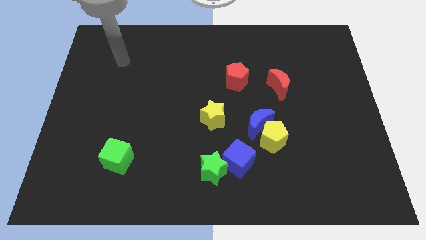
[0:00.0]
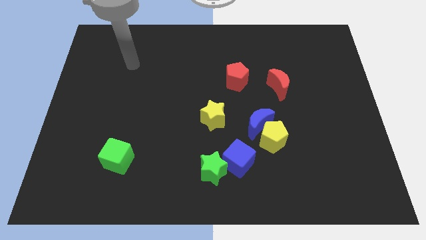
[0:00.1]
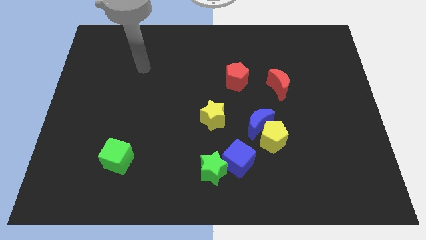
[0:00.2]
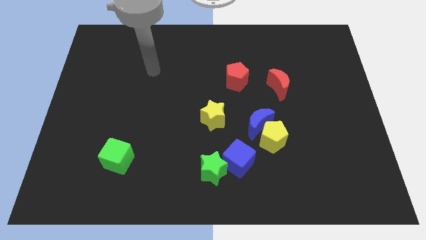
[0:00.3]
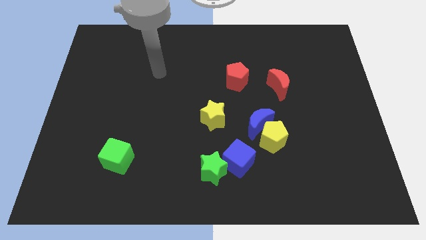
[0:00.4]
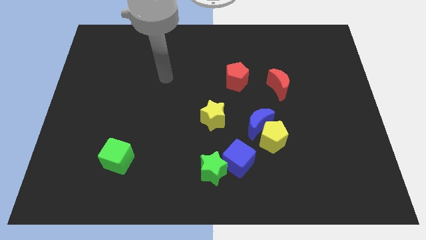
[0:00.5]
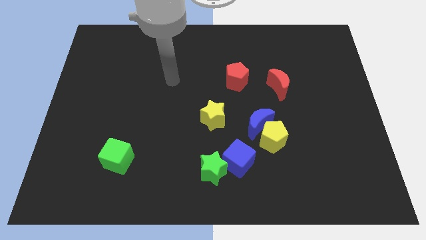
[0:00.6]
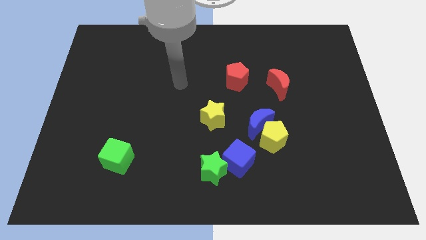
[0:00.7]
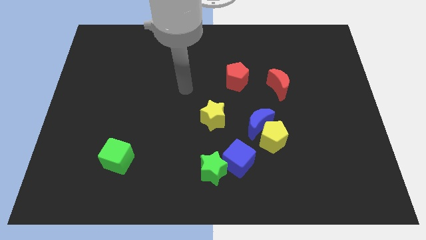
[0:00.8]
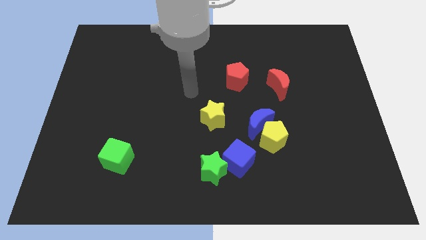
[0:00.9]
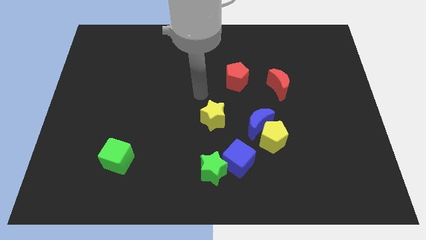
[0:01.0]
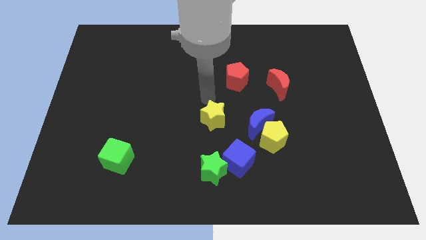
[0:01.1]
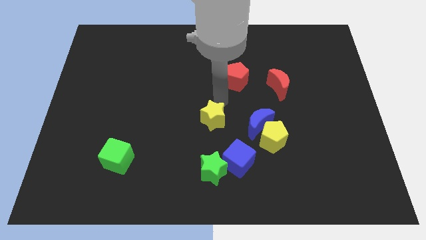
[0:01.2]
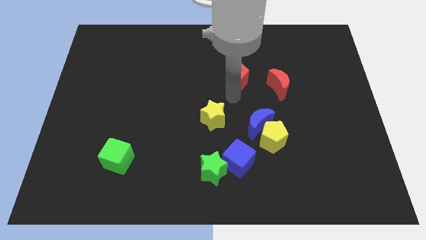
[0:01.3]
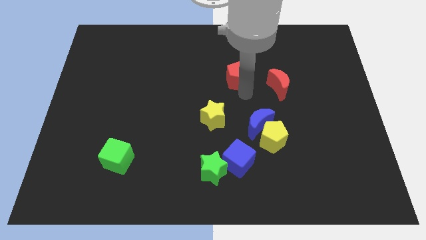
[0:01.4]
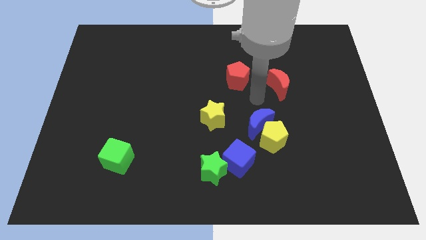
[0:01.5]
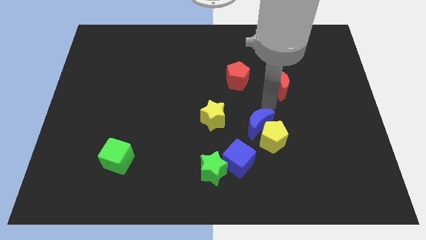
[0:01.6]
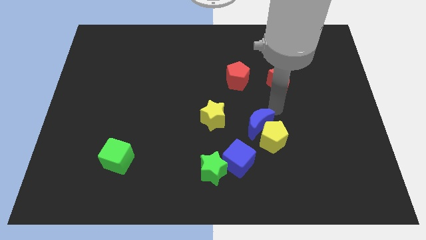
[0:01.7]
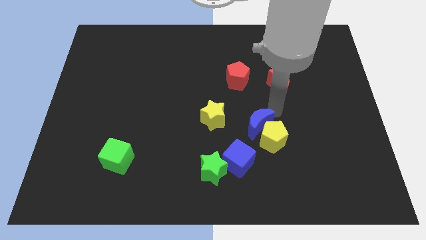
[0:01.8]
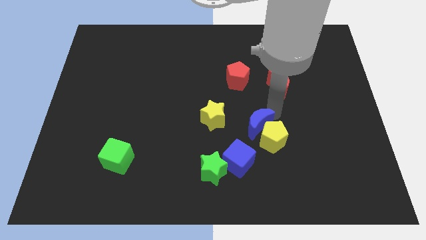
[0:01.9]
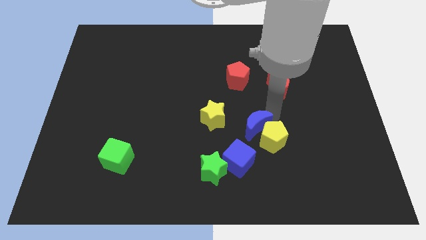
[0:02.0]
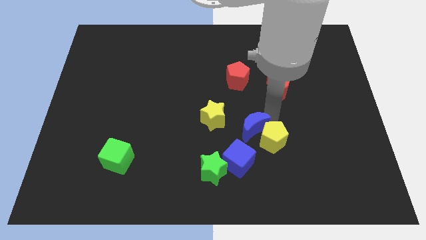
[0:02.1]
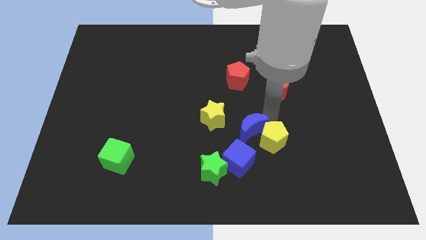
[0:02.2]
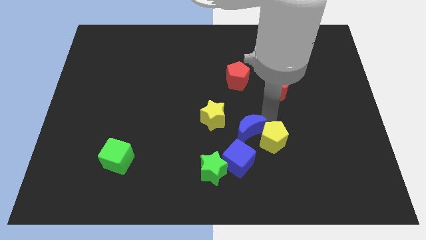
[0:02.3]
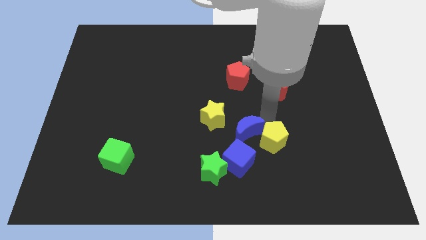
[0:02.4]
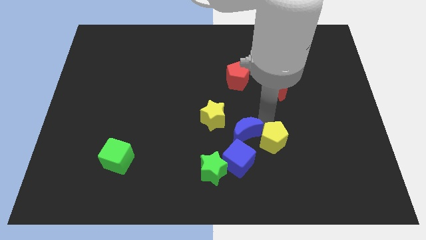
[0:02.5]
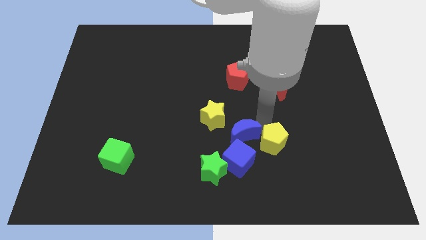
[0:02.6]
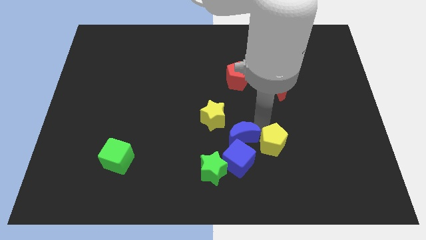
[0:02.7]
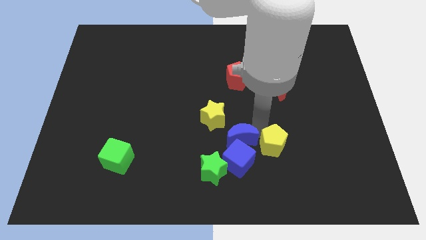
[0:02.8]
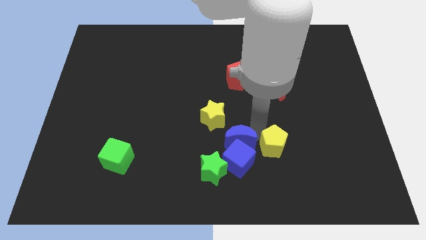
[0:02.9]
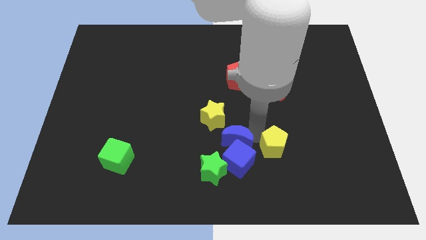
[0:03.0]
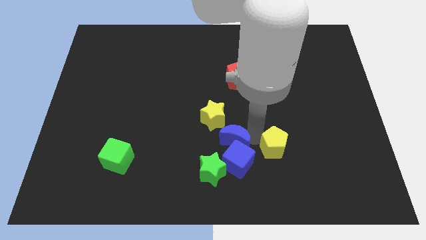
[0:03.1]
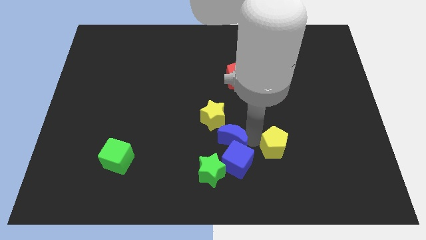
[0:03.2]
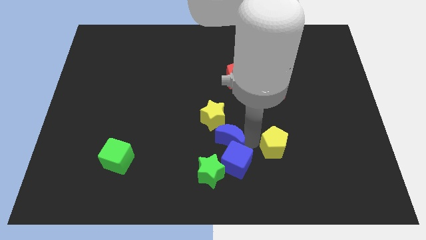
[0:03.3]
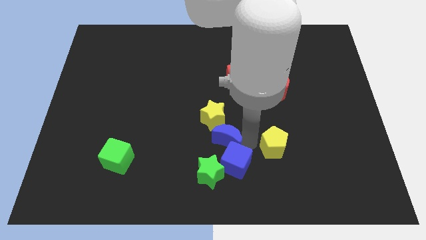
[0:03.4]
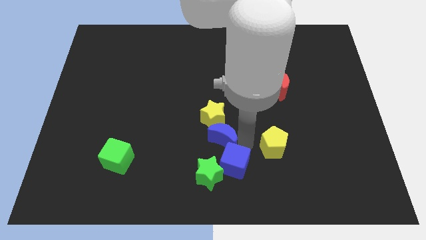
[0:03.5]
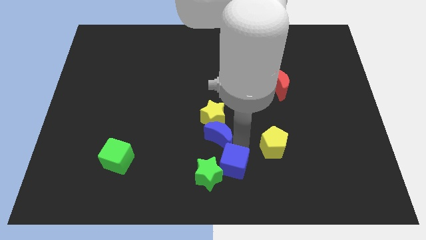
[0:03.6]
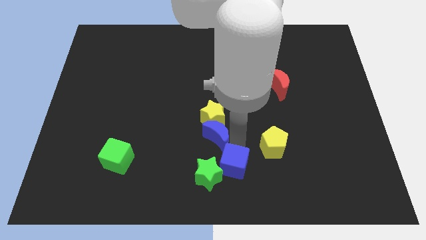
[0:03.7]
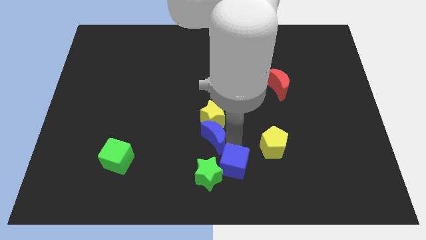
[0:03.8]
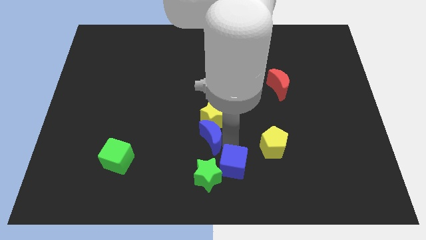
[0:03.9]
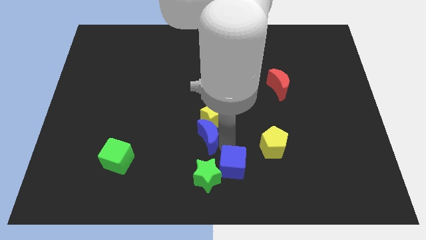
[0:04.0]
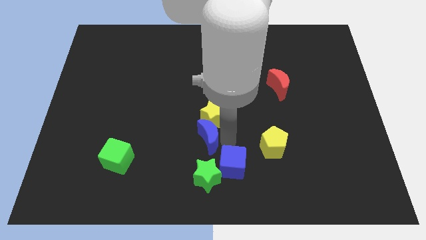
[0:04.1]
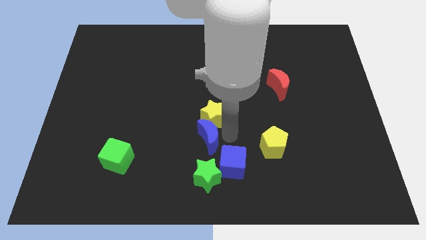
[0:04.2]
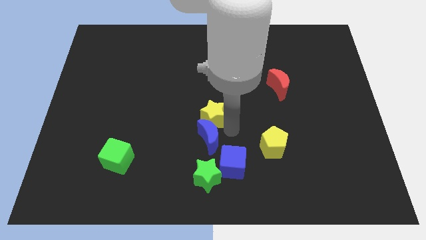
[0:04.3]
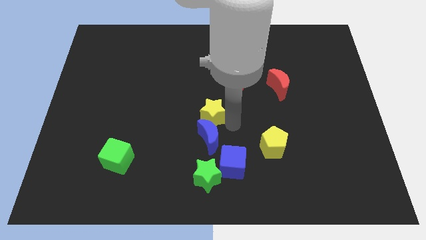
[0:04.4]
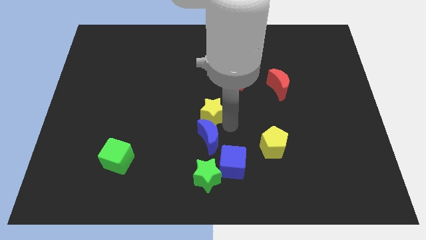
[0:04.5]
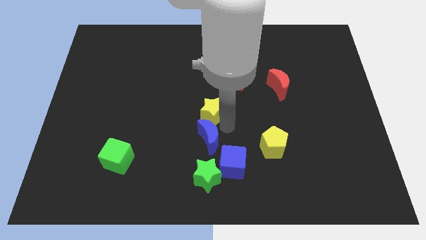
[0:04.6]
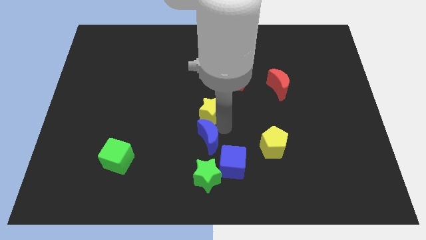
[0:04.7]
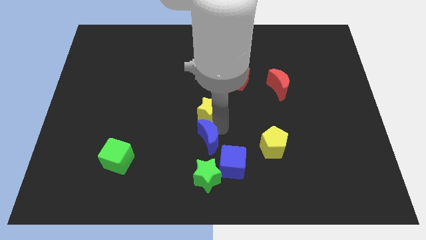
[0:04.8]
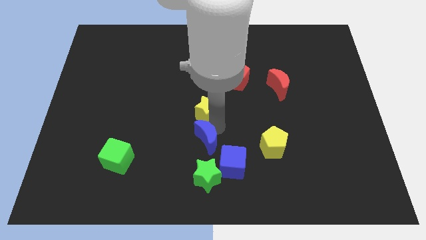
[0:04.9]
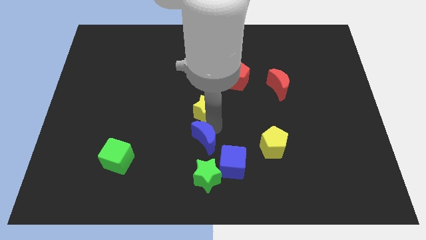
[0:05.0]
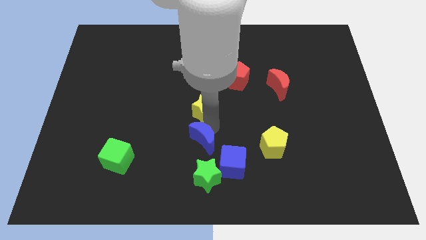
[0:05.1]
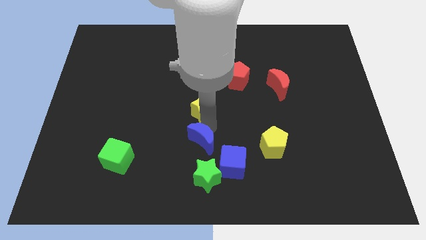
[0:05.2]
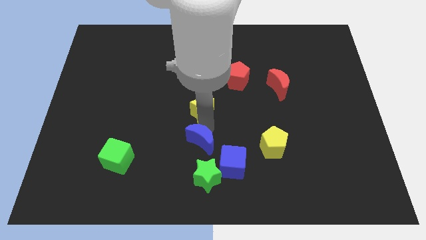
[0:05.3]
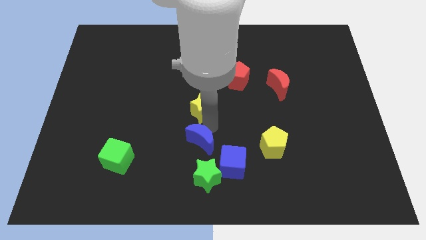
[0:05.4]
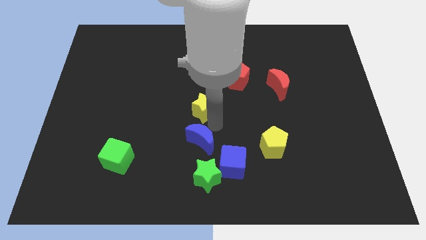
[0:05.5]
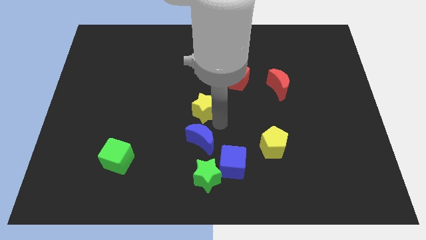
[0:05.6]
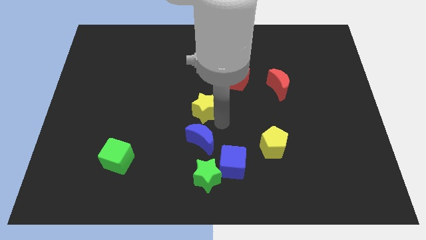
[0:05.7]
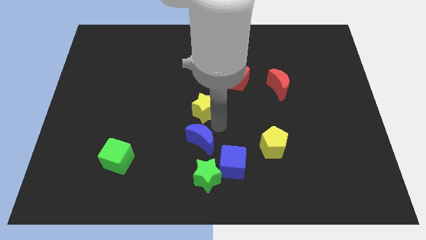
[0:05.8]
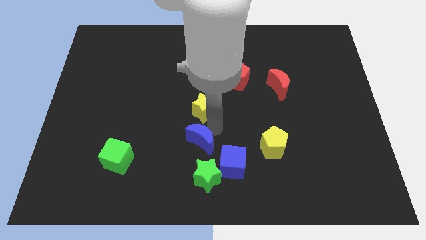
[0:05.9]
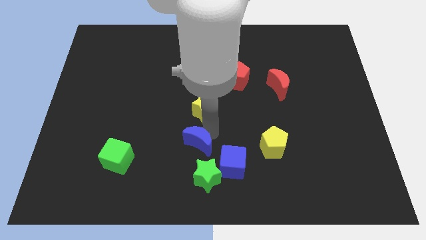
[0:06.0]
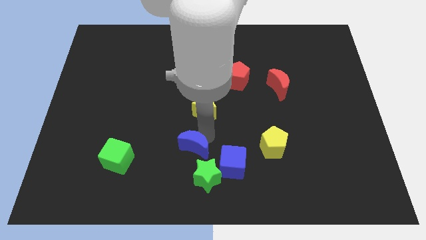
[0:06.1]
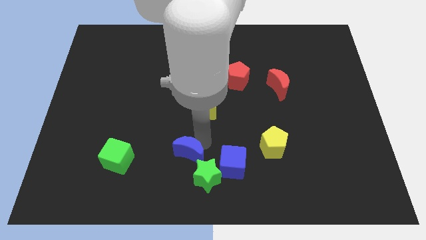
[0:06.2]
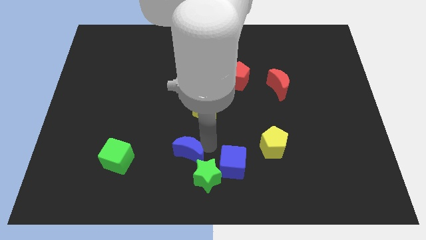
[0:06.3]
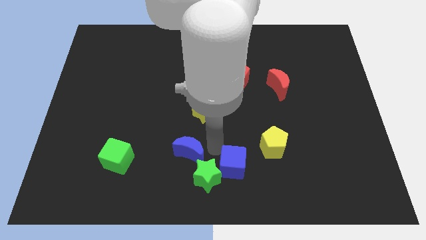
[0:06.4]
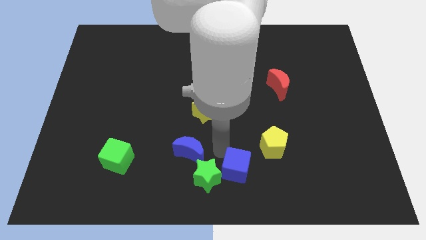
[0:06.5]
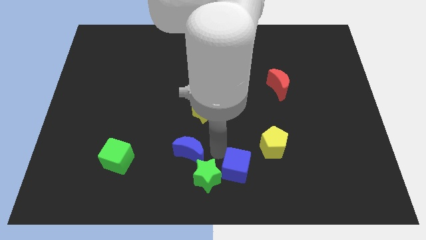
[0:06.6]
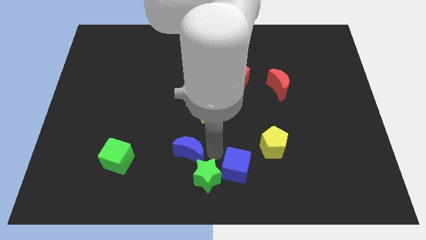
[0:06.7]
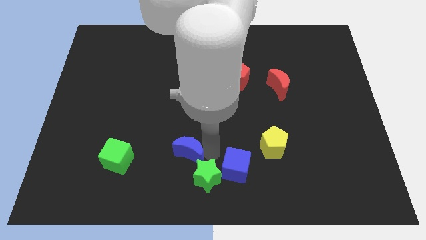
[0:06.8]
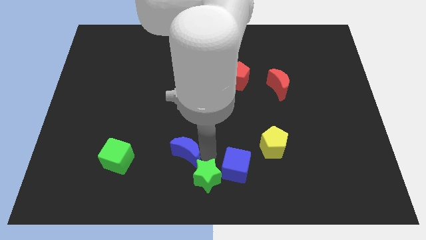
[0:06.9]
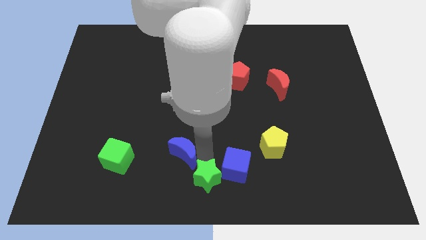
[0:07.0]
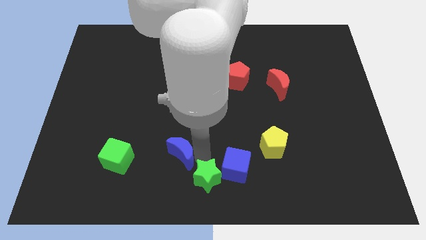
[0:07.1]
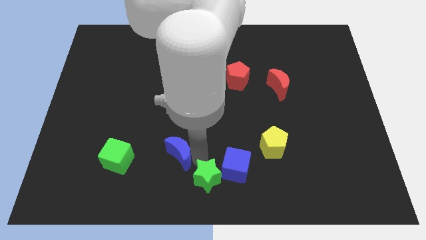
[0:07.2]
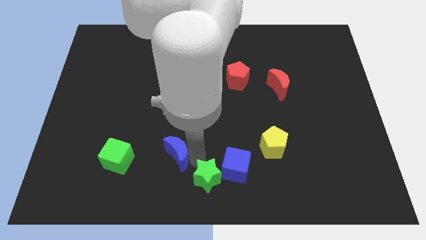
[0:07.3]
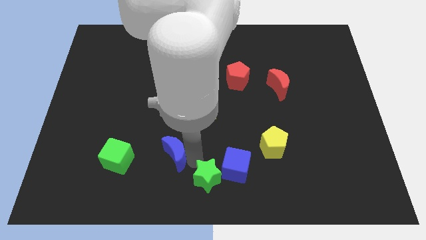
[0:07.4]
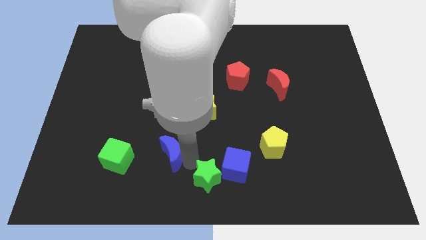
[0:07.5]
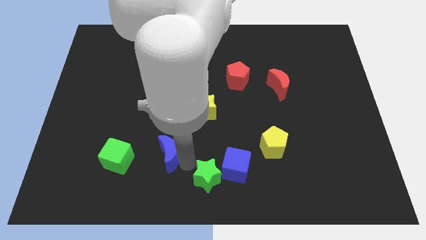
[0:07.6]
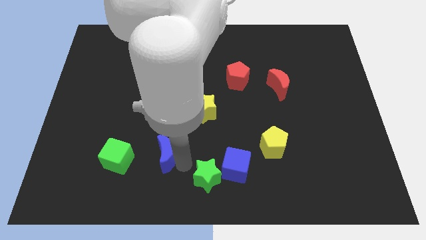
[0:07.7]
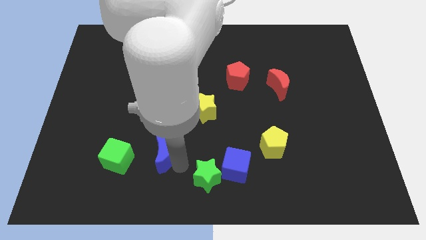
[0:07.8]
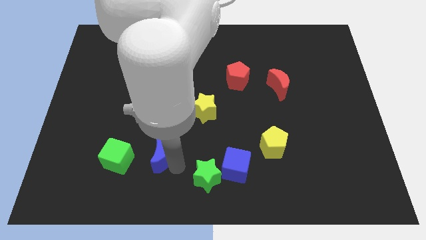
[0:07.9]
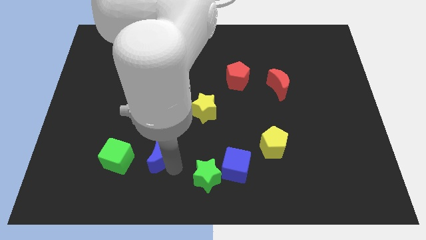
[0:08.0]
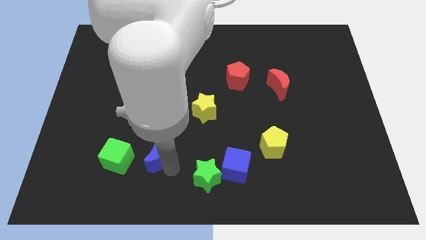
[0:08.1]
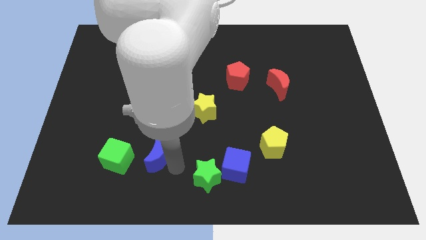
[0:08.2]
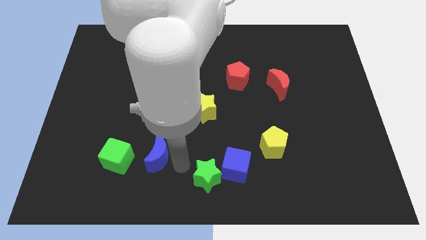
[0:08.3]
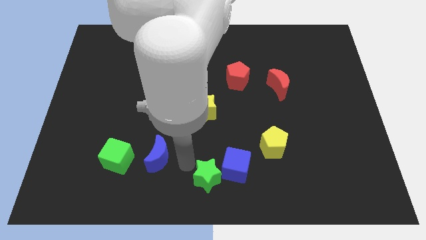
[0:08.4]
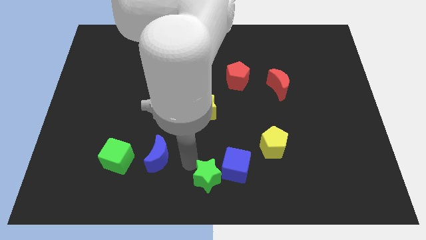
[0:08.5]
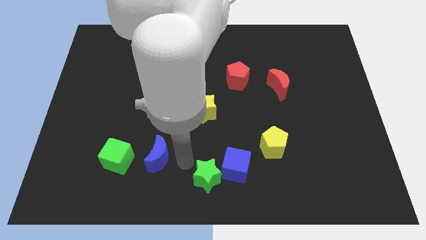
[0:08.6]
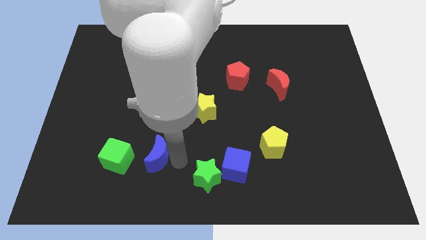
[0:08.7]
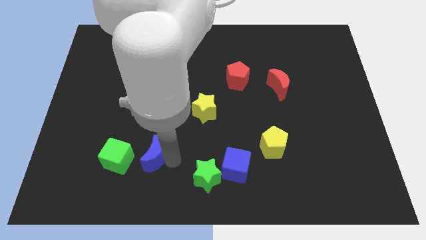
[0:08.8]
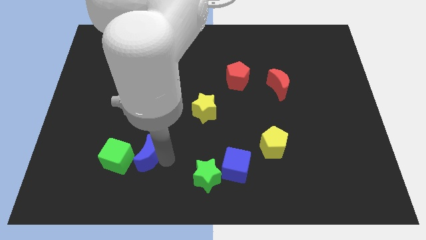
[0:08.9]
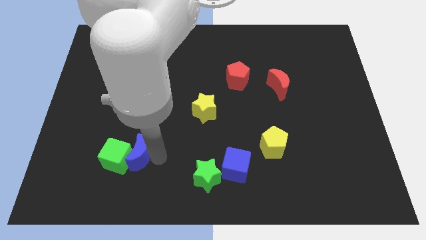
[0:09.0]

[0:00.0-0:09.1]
slide the blue moon towards the green cube
